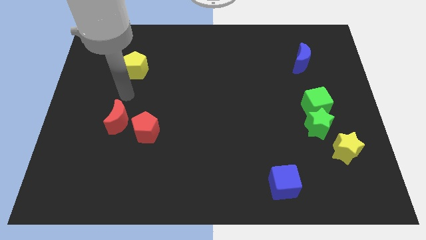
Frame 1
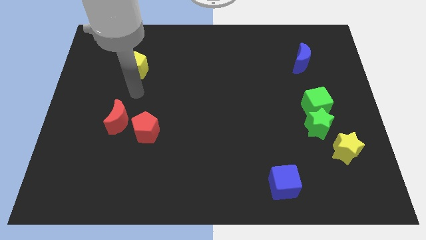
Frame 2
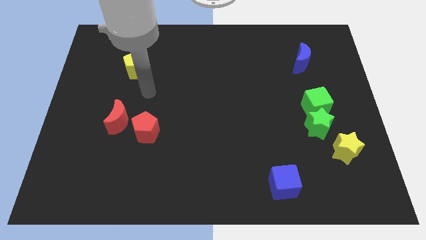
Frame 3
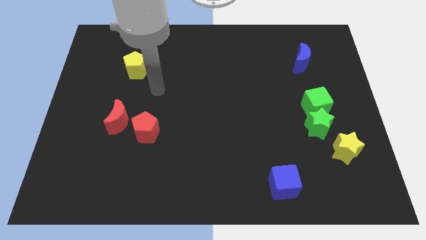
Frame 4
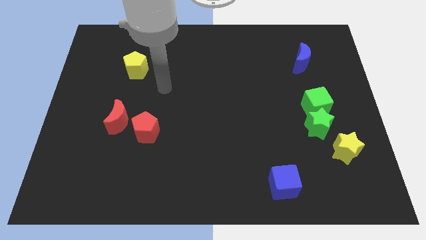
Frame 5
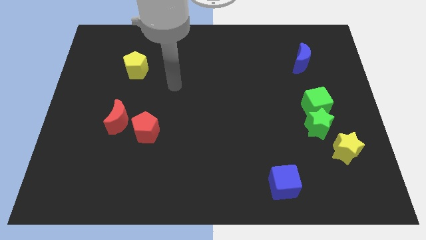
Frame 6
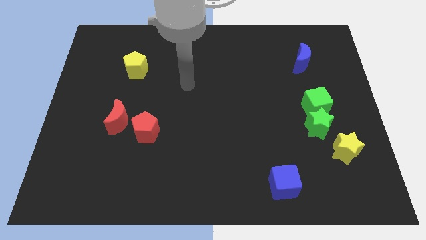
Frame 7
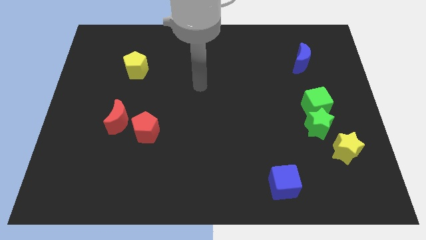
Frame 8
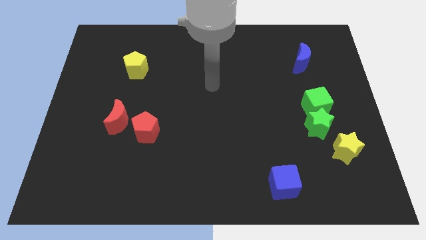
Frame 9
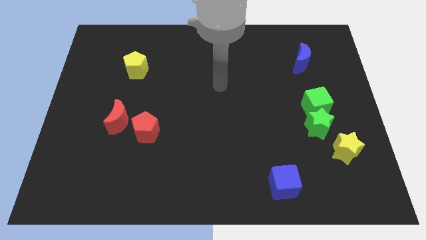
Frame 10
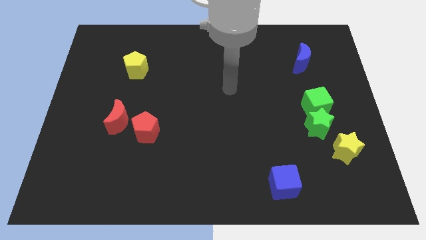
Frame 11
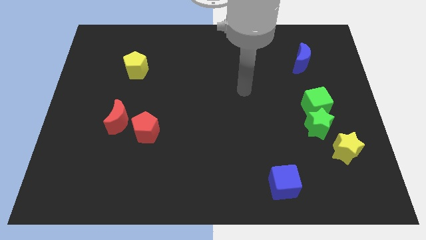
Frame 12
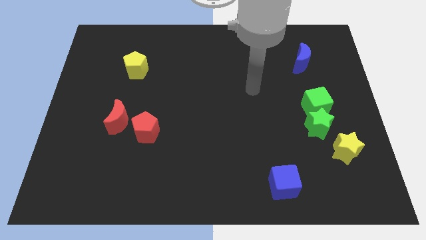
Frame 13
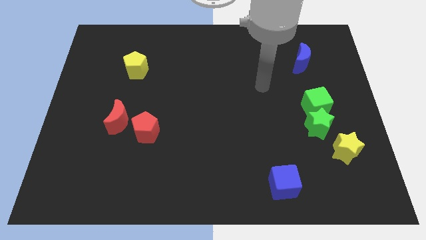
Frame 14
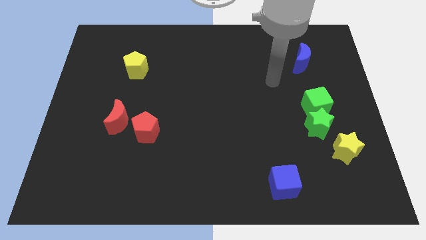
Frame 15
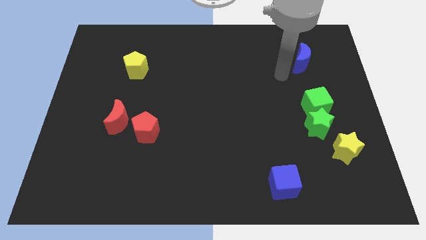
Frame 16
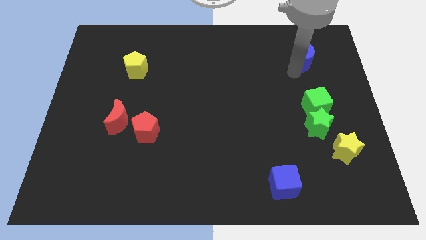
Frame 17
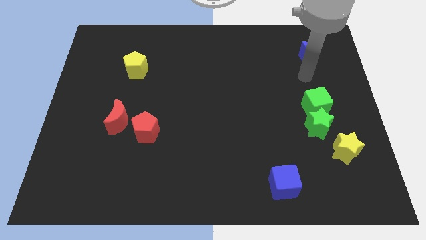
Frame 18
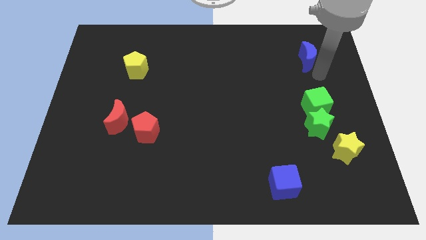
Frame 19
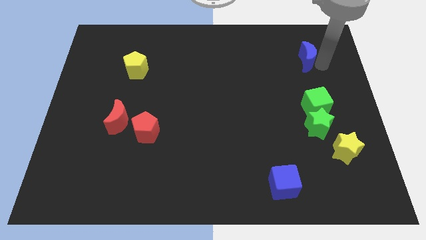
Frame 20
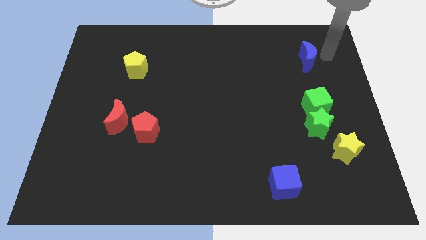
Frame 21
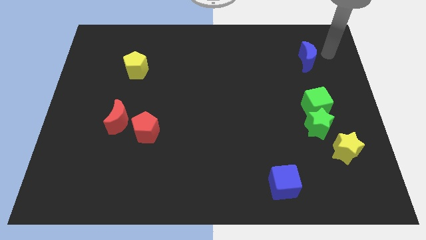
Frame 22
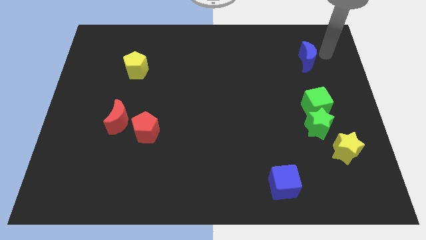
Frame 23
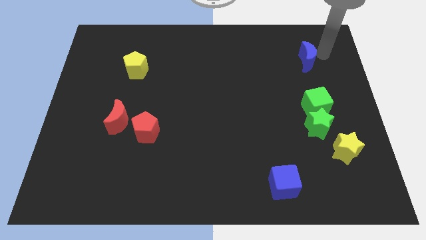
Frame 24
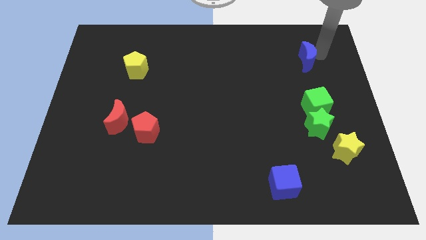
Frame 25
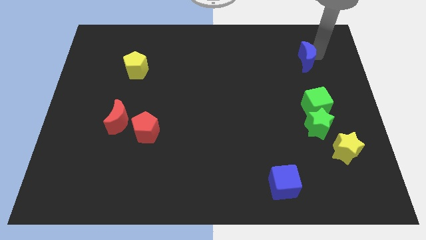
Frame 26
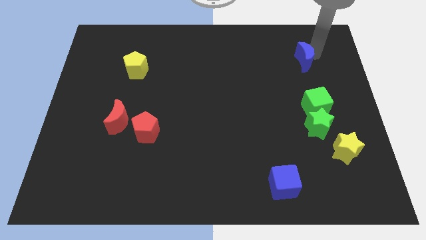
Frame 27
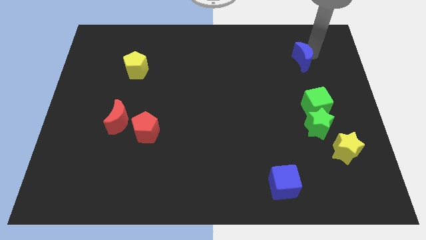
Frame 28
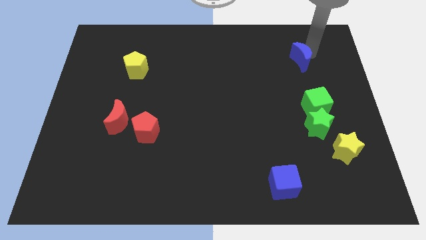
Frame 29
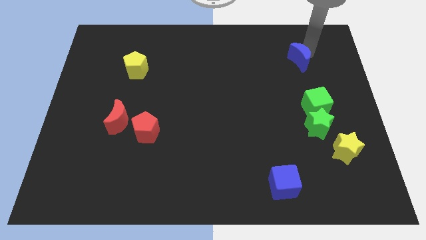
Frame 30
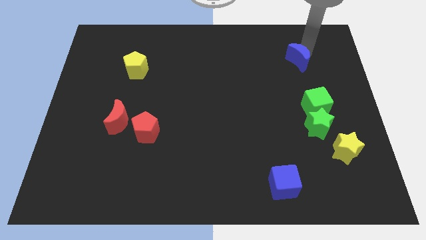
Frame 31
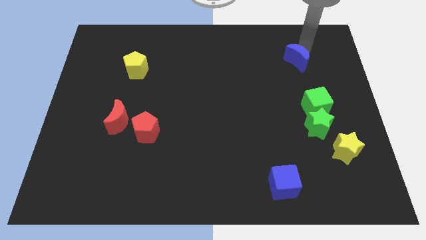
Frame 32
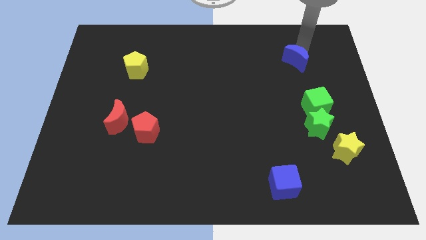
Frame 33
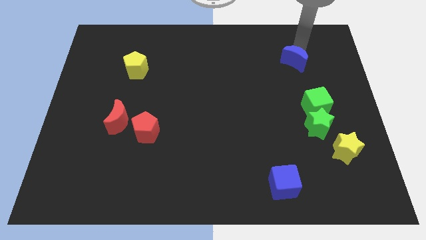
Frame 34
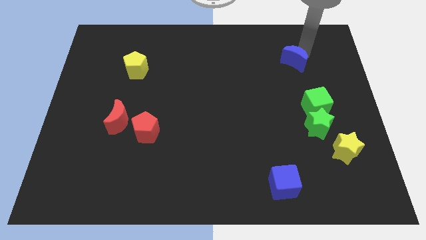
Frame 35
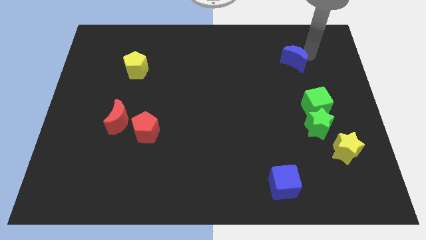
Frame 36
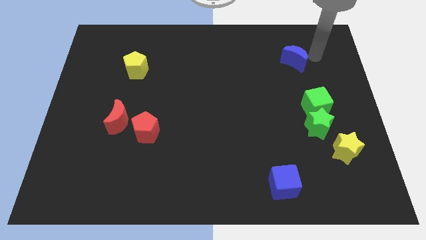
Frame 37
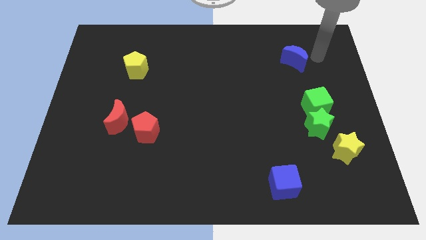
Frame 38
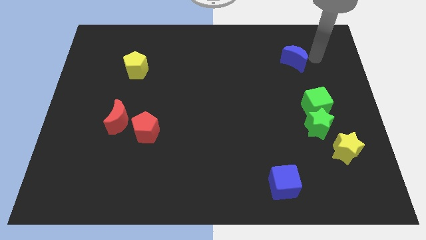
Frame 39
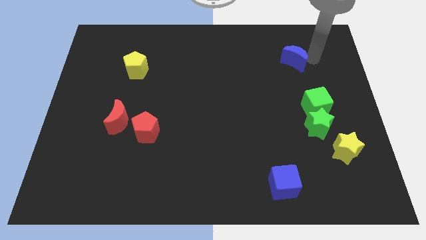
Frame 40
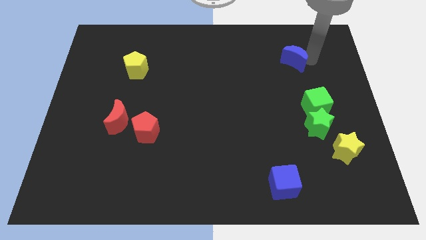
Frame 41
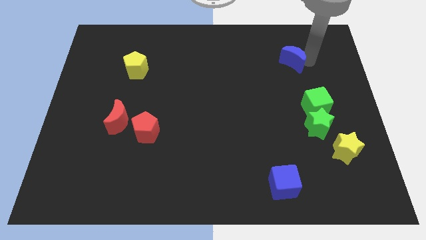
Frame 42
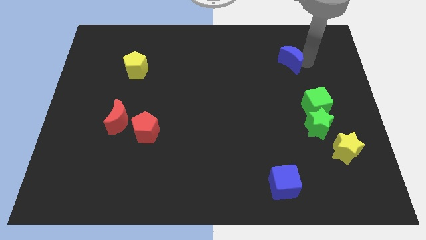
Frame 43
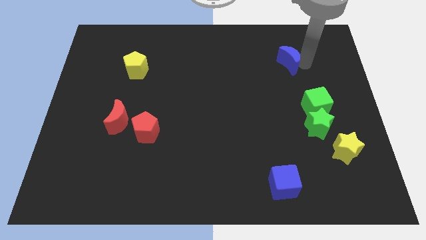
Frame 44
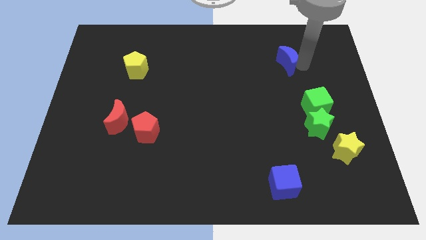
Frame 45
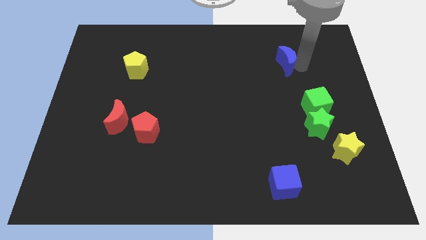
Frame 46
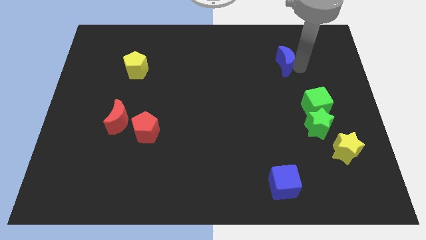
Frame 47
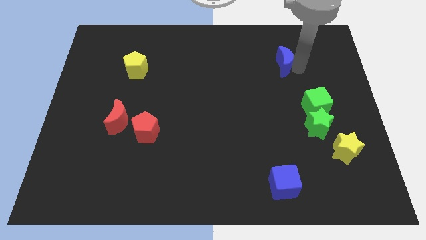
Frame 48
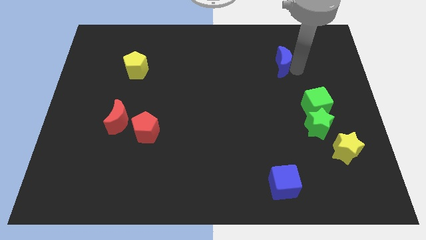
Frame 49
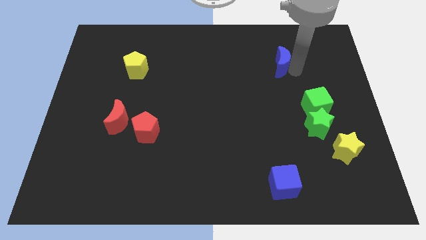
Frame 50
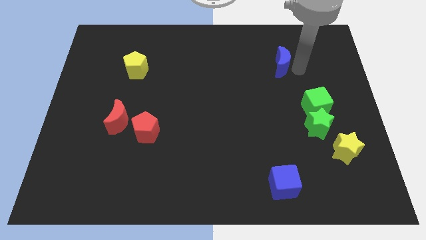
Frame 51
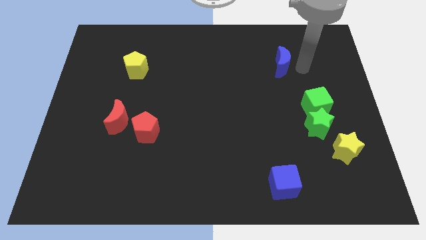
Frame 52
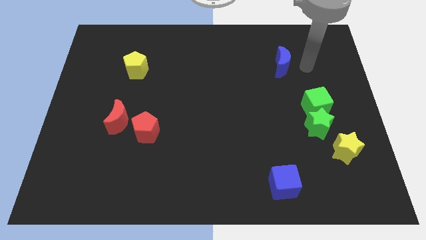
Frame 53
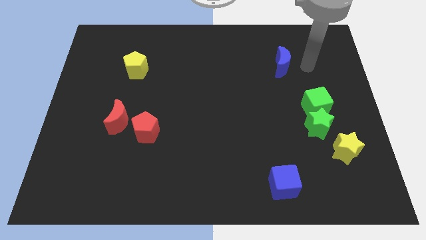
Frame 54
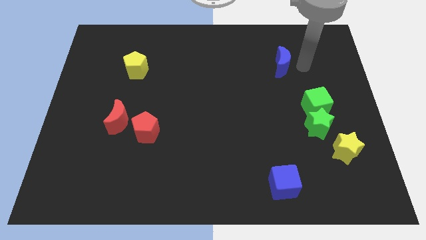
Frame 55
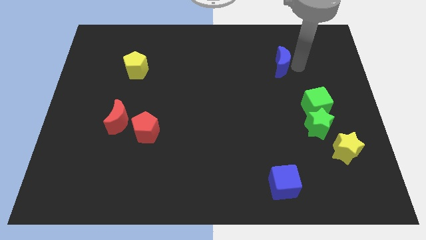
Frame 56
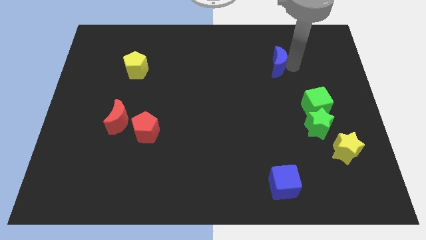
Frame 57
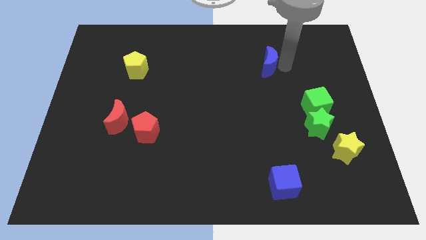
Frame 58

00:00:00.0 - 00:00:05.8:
slide the blue moon to the left a bit

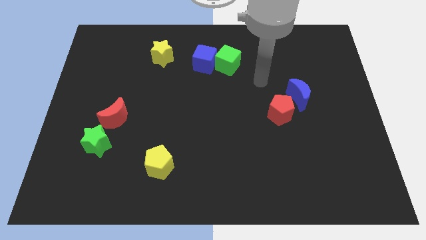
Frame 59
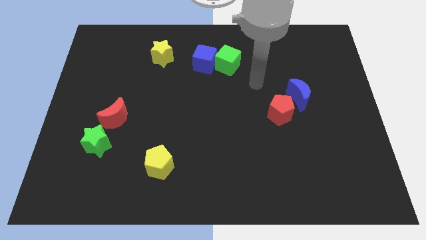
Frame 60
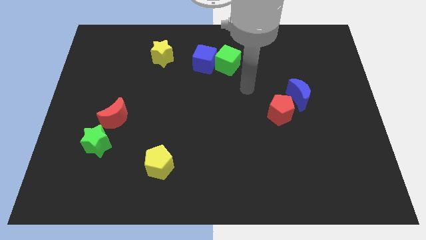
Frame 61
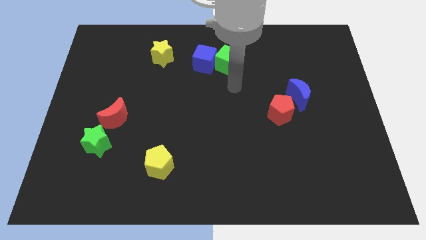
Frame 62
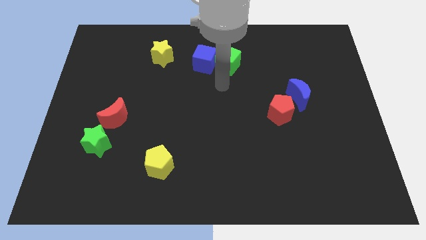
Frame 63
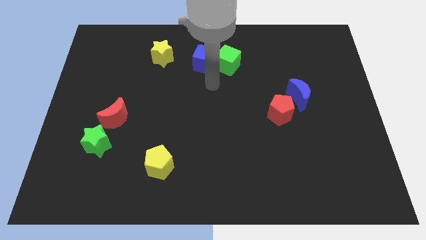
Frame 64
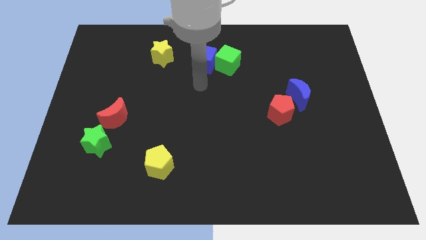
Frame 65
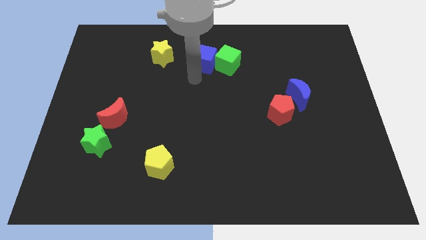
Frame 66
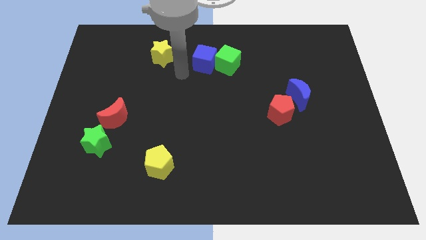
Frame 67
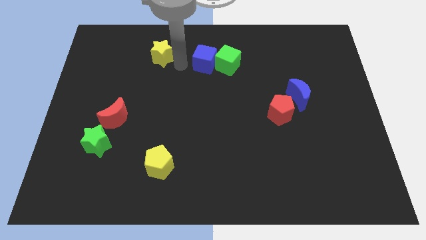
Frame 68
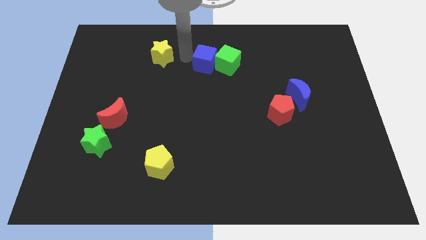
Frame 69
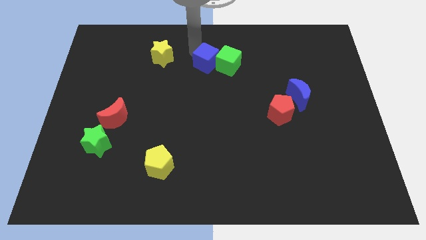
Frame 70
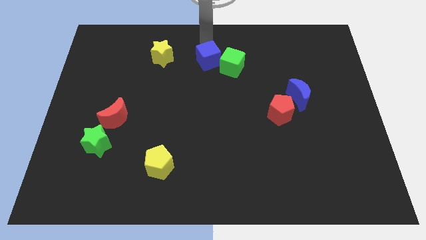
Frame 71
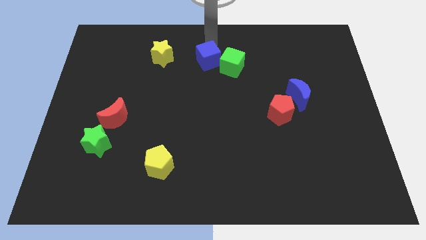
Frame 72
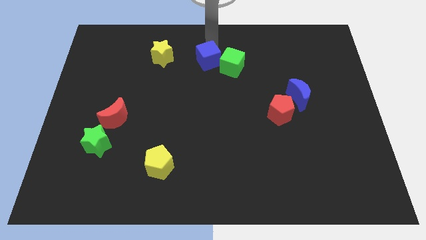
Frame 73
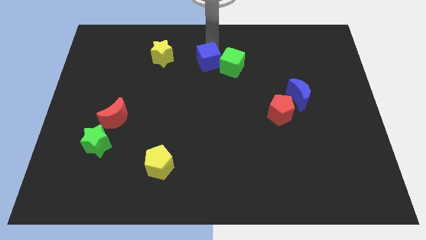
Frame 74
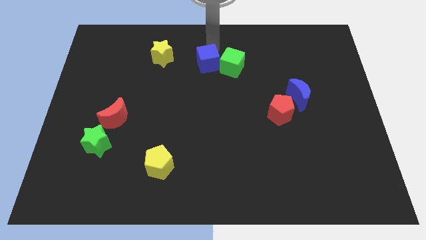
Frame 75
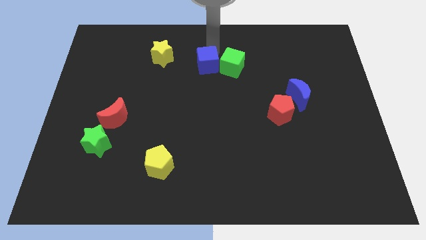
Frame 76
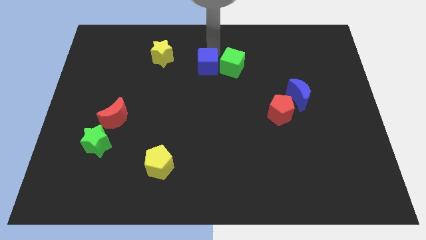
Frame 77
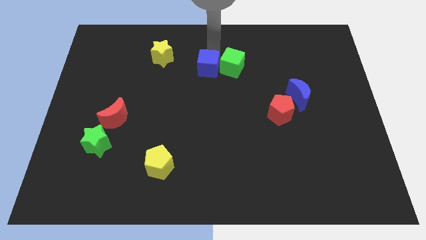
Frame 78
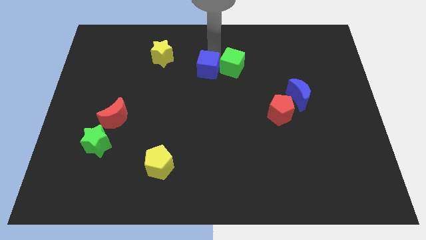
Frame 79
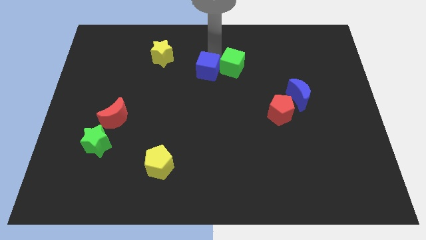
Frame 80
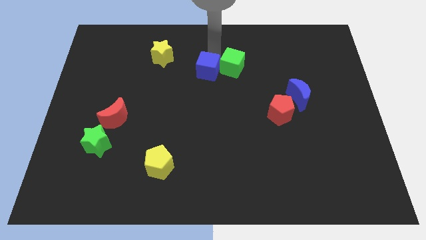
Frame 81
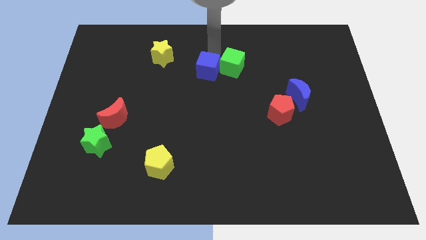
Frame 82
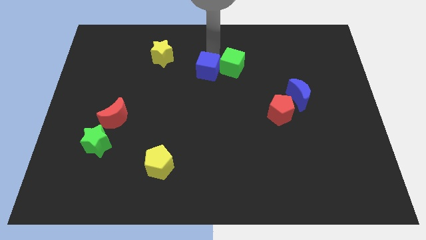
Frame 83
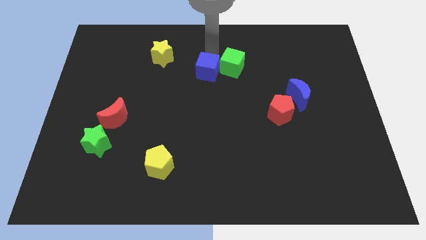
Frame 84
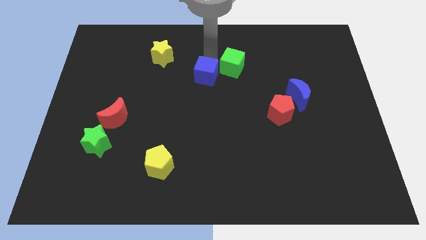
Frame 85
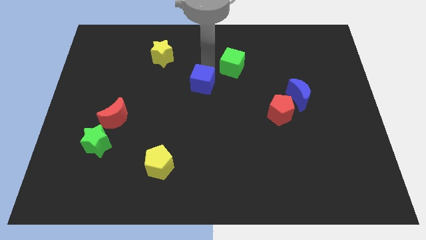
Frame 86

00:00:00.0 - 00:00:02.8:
slightly move the blue cube down

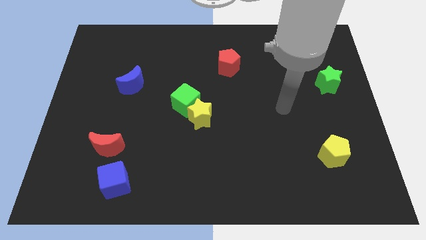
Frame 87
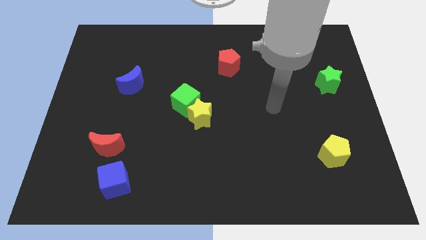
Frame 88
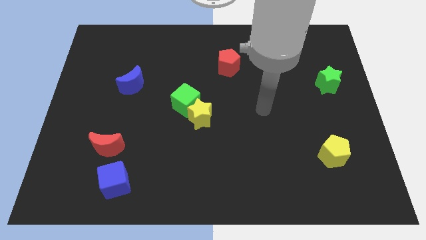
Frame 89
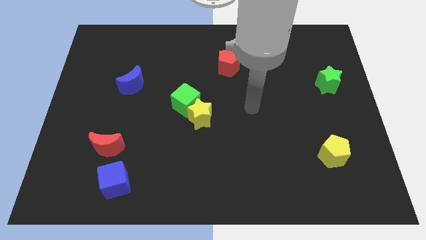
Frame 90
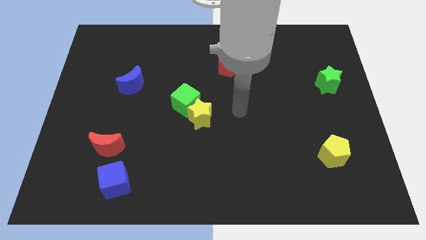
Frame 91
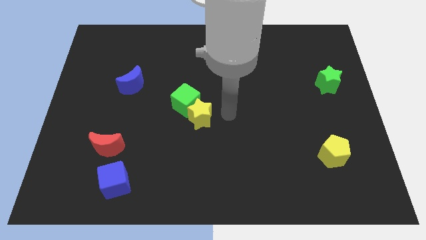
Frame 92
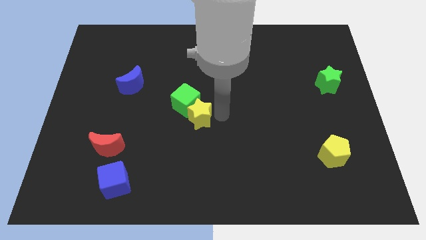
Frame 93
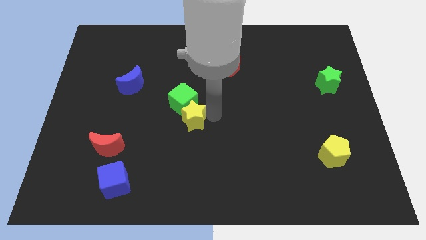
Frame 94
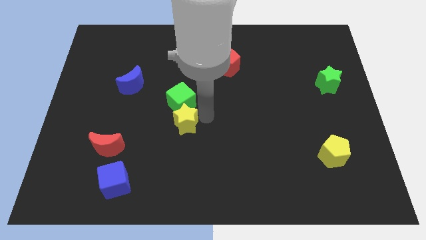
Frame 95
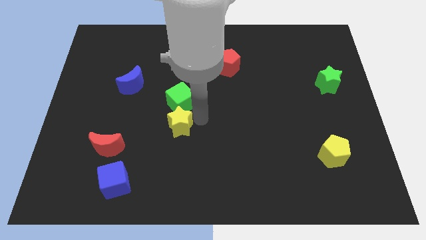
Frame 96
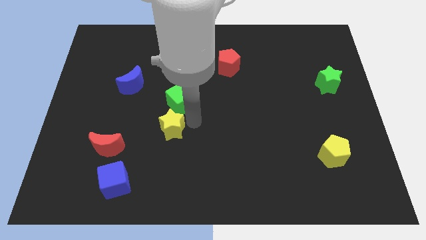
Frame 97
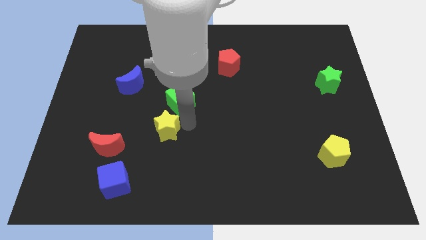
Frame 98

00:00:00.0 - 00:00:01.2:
move the yellow star a little bit left
